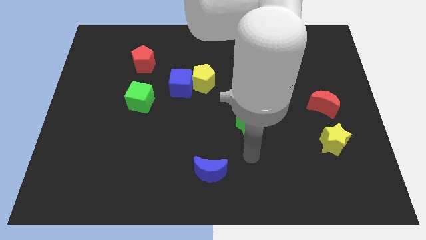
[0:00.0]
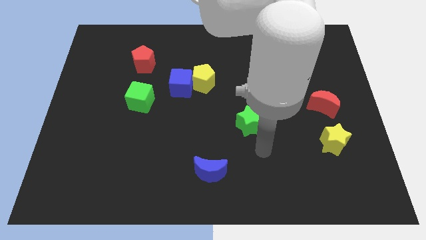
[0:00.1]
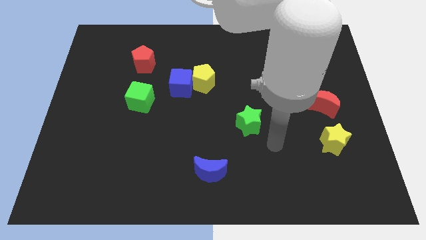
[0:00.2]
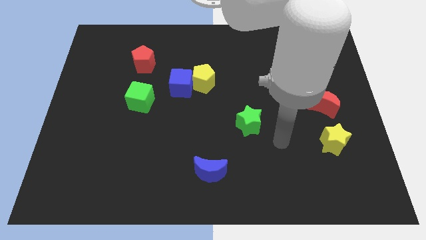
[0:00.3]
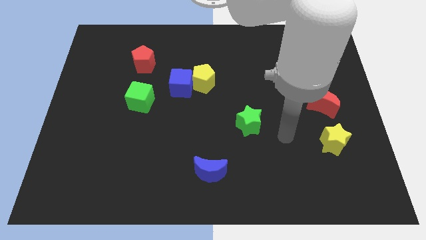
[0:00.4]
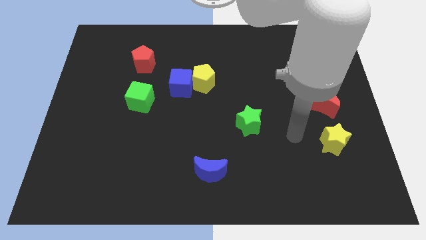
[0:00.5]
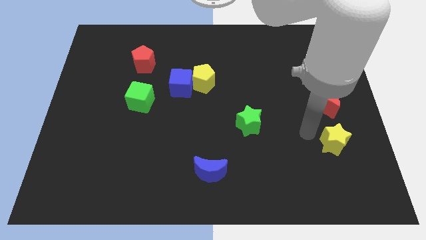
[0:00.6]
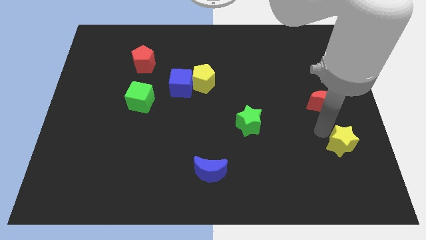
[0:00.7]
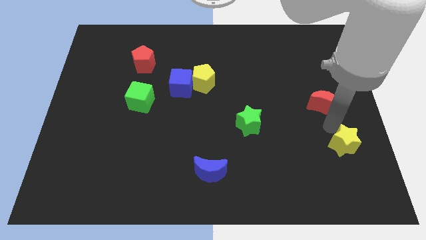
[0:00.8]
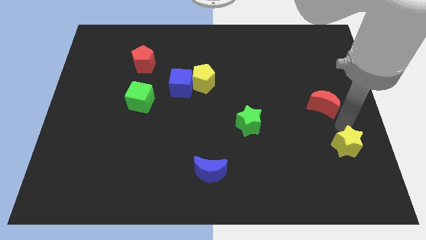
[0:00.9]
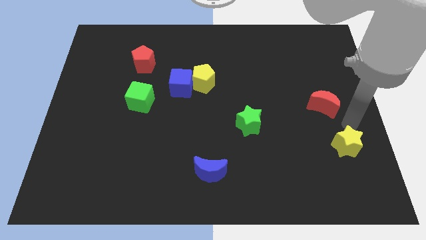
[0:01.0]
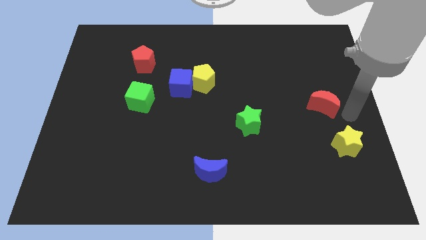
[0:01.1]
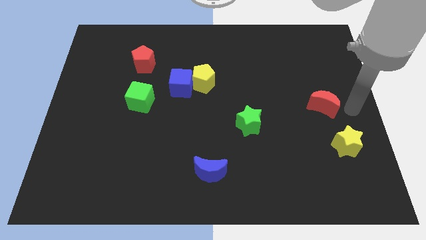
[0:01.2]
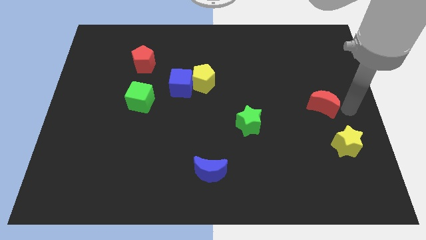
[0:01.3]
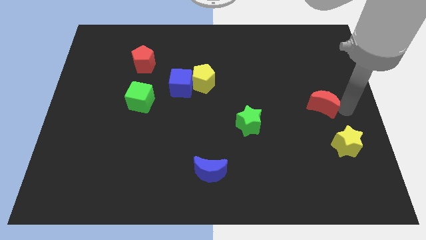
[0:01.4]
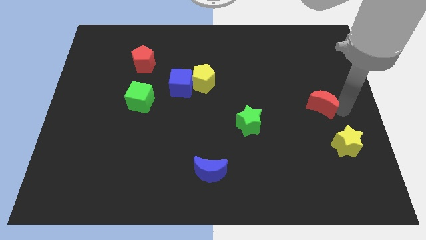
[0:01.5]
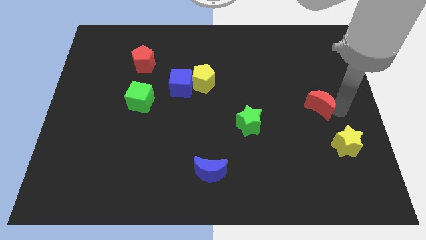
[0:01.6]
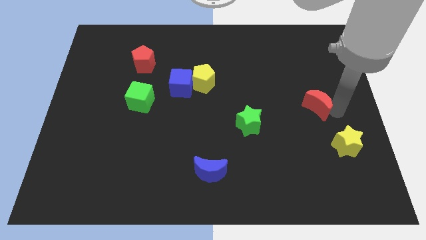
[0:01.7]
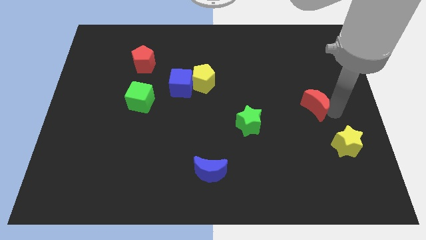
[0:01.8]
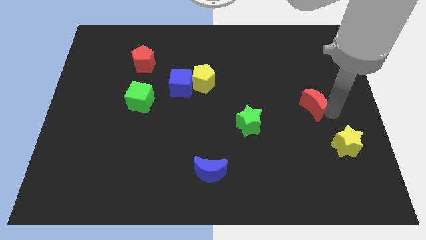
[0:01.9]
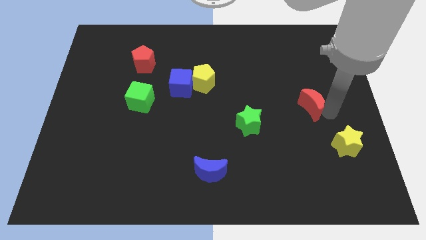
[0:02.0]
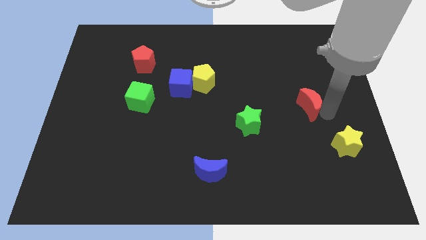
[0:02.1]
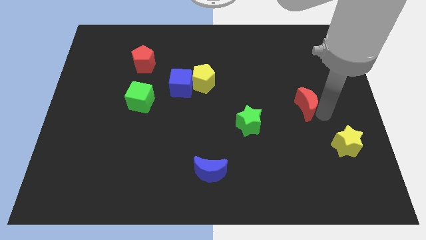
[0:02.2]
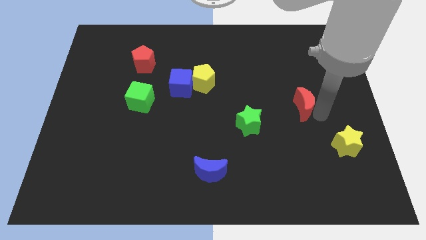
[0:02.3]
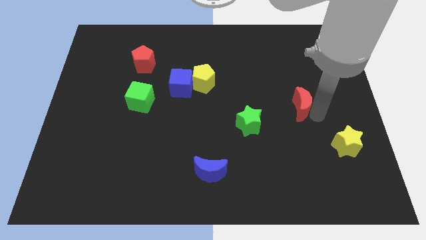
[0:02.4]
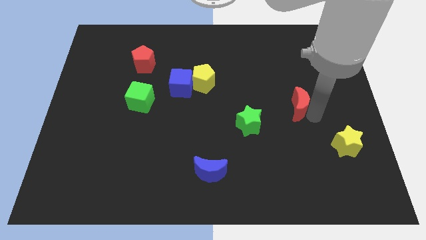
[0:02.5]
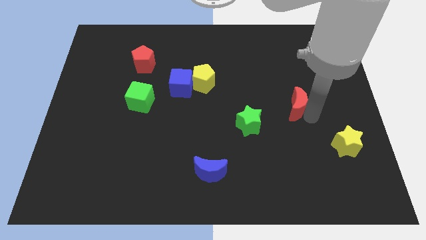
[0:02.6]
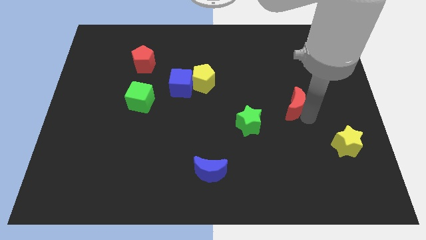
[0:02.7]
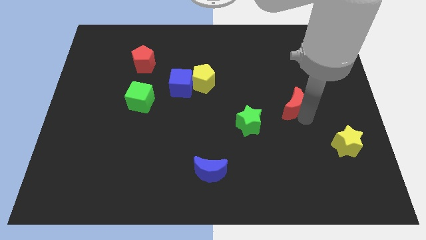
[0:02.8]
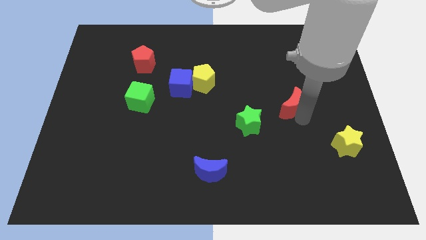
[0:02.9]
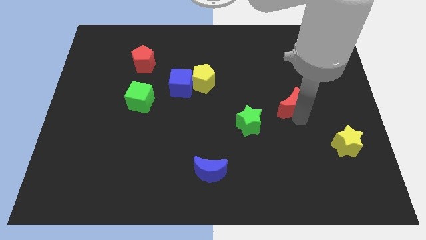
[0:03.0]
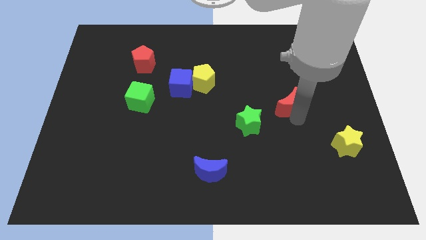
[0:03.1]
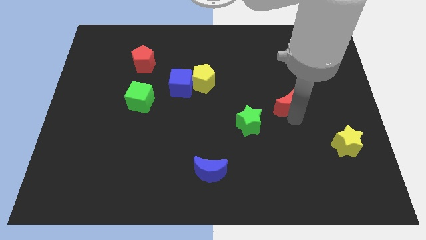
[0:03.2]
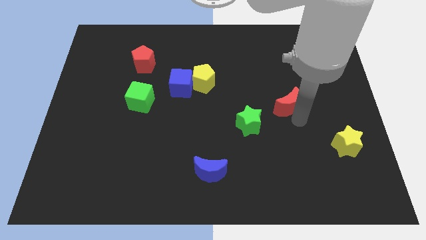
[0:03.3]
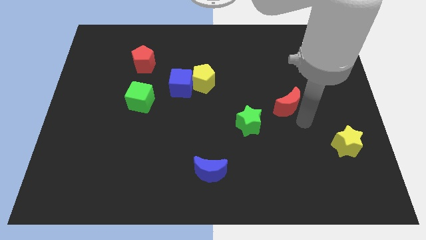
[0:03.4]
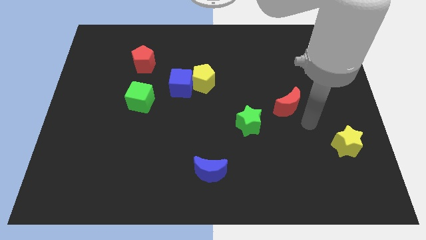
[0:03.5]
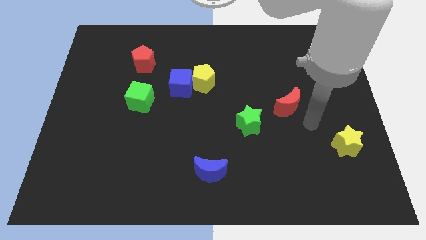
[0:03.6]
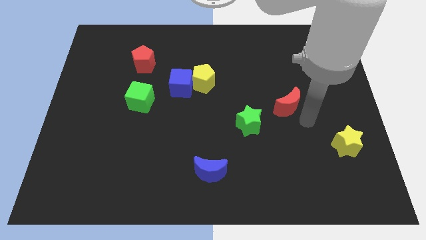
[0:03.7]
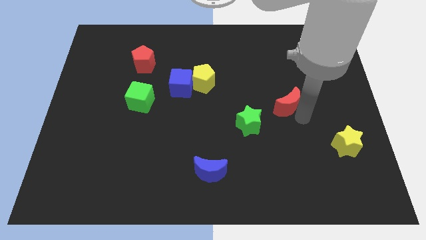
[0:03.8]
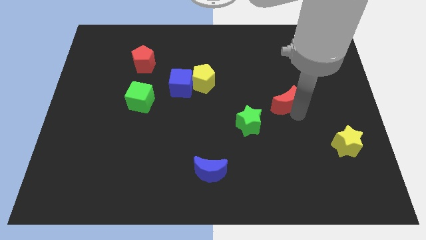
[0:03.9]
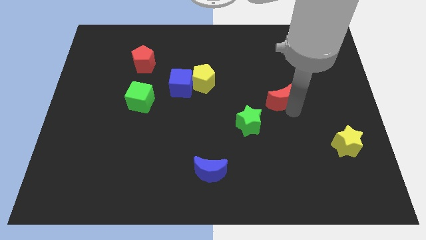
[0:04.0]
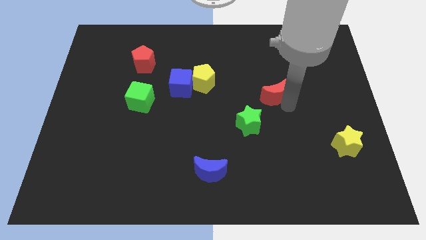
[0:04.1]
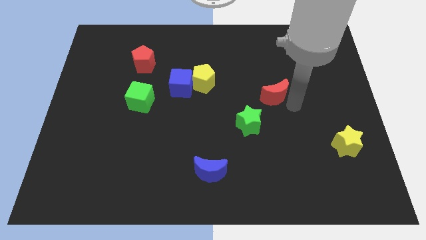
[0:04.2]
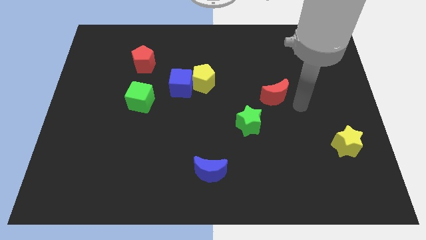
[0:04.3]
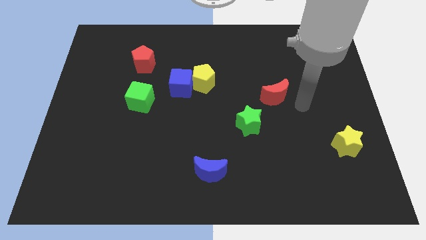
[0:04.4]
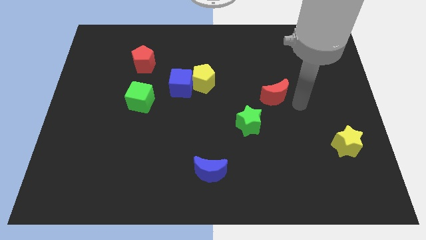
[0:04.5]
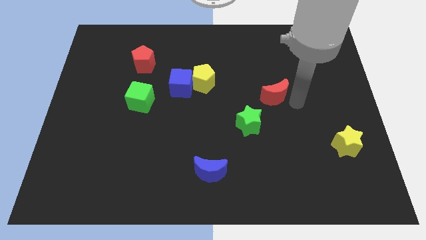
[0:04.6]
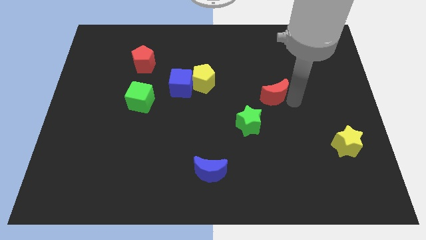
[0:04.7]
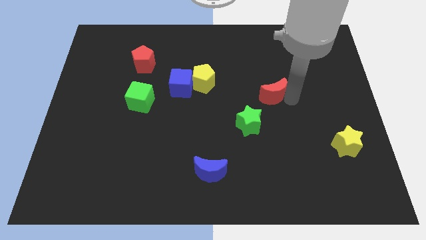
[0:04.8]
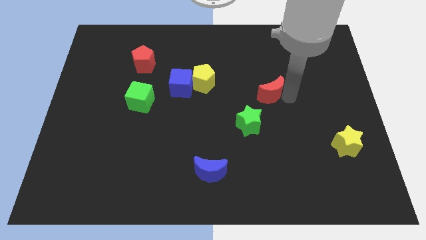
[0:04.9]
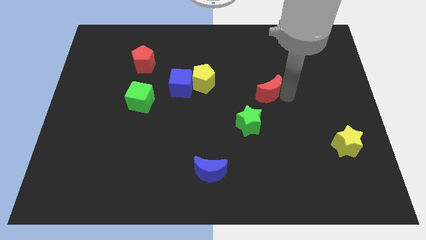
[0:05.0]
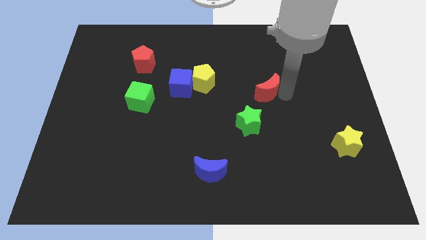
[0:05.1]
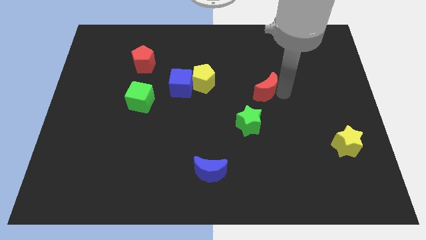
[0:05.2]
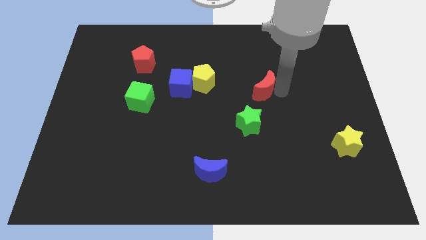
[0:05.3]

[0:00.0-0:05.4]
slide the red moon just right of the yellow pentagon

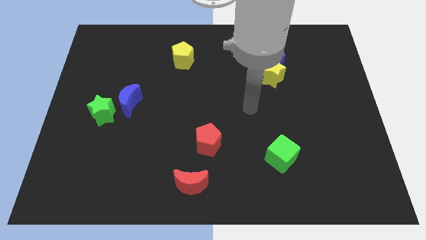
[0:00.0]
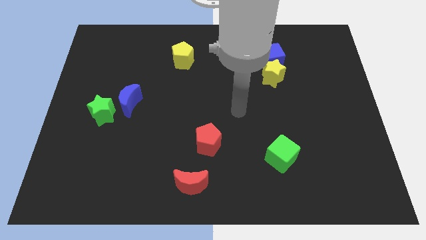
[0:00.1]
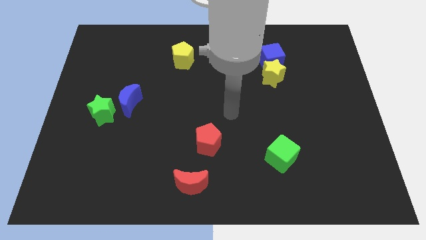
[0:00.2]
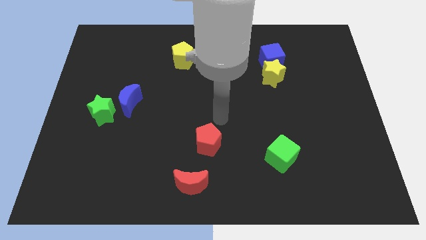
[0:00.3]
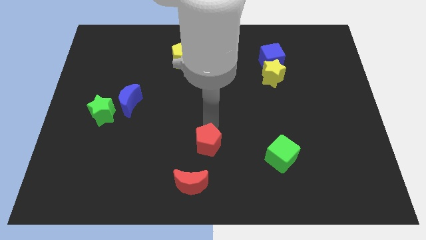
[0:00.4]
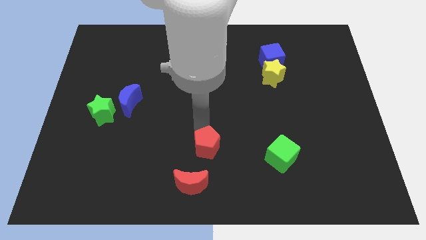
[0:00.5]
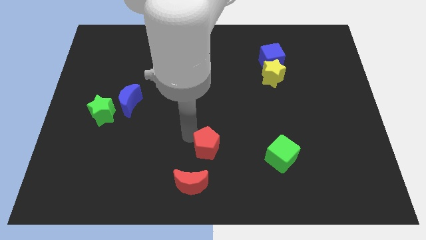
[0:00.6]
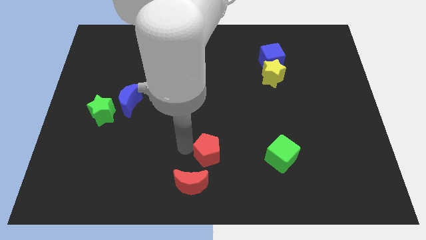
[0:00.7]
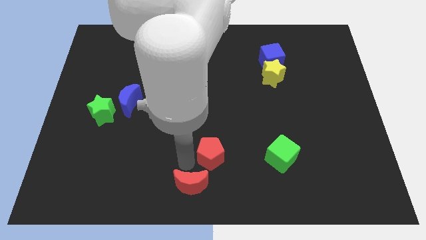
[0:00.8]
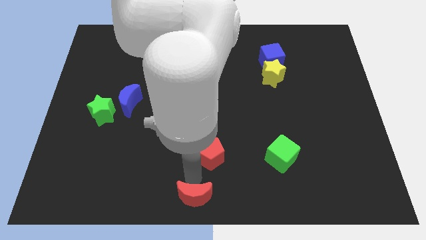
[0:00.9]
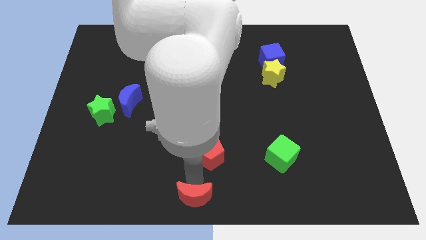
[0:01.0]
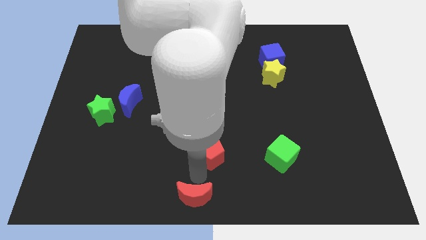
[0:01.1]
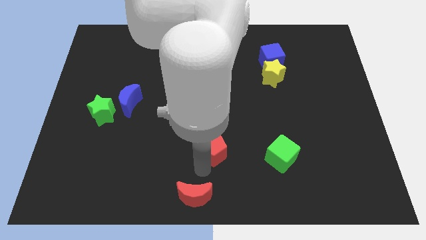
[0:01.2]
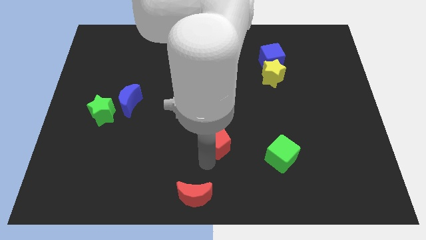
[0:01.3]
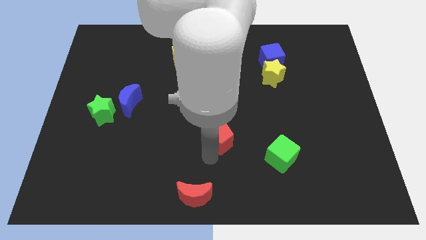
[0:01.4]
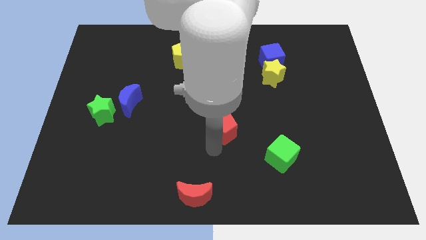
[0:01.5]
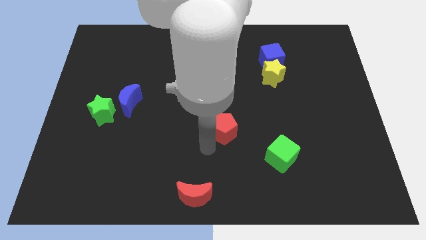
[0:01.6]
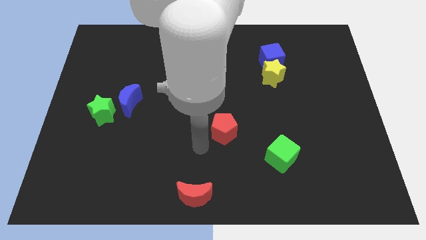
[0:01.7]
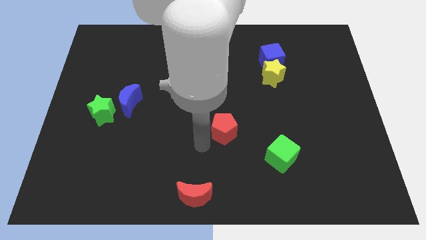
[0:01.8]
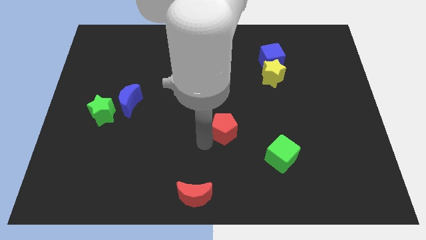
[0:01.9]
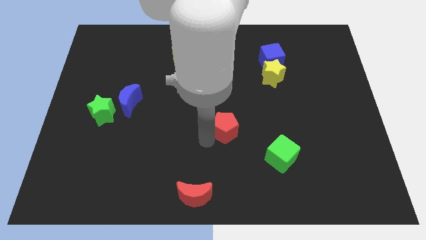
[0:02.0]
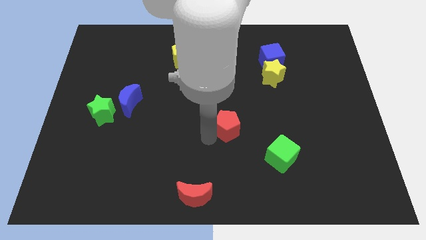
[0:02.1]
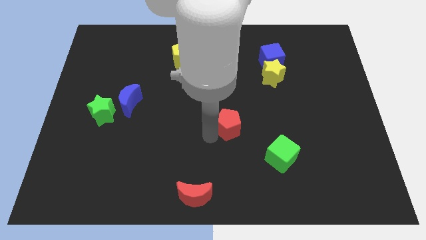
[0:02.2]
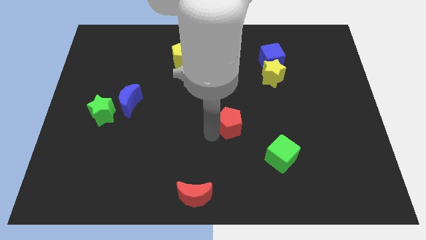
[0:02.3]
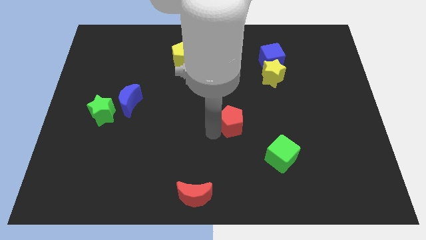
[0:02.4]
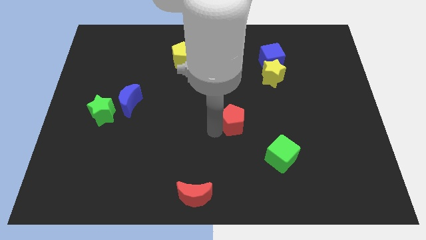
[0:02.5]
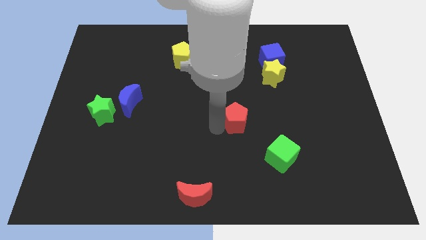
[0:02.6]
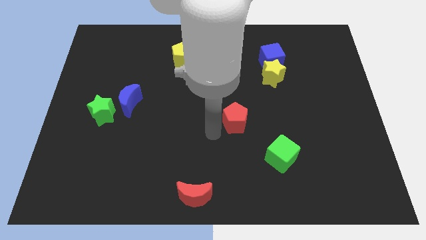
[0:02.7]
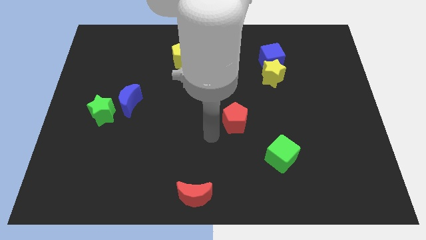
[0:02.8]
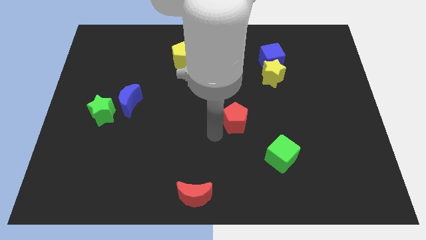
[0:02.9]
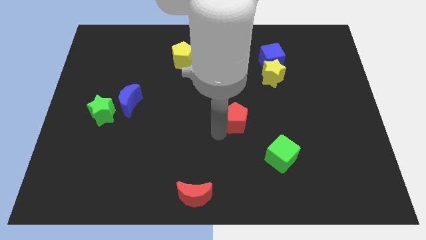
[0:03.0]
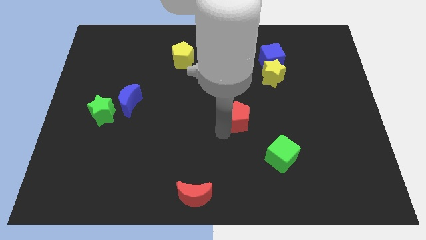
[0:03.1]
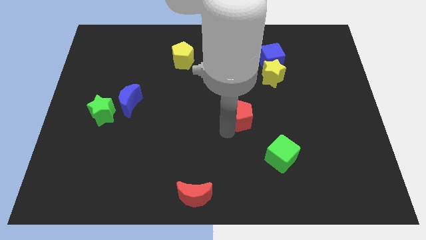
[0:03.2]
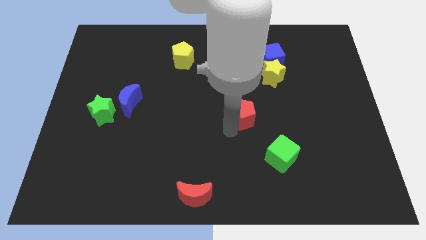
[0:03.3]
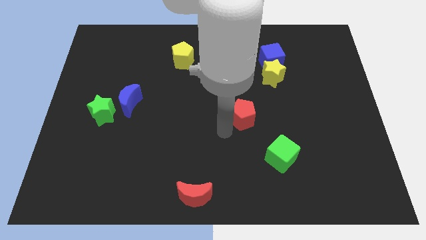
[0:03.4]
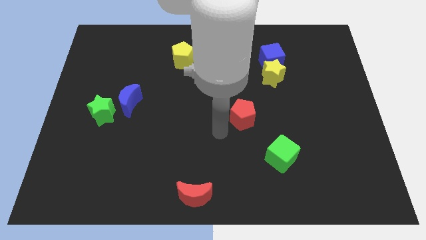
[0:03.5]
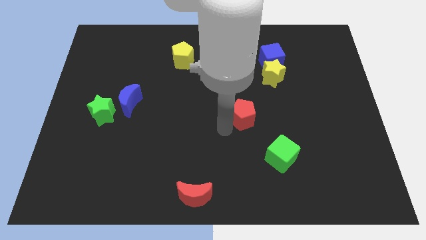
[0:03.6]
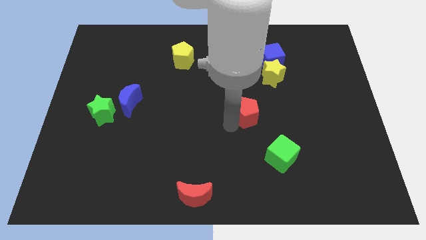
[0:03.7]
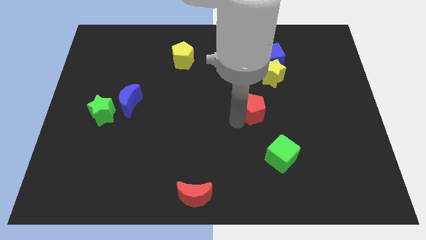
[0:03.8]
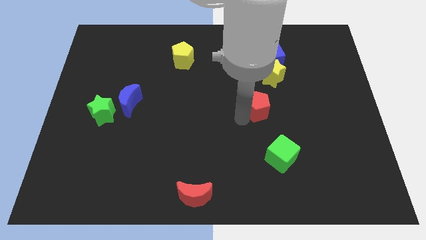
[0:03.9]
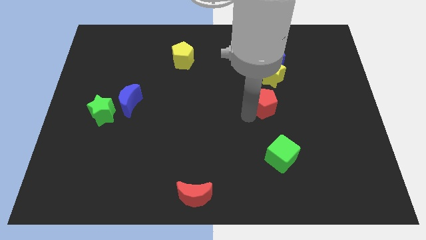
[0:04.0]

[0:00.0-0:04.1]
put the red pentagon to the bottom side of the blue cube
